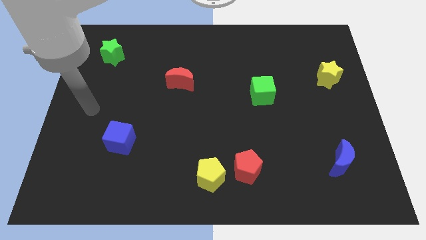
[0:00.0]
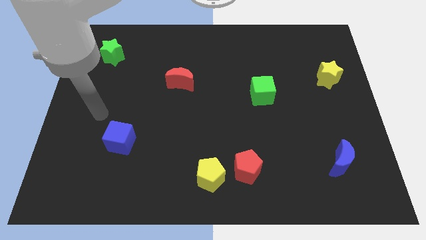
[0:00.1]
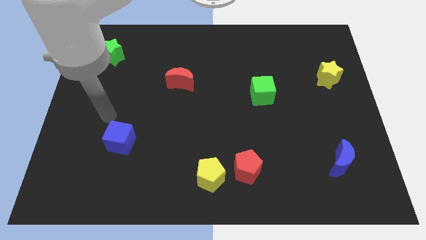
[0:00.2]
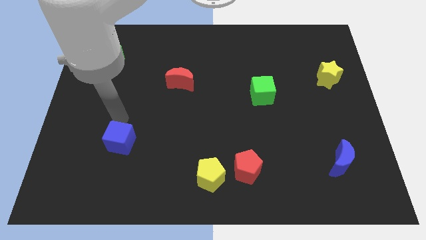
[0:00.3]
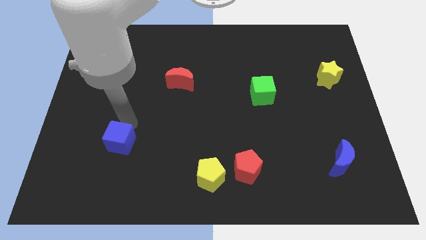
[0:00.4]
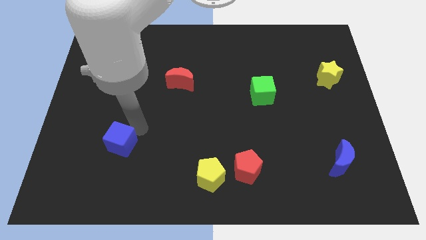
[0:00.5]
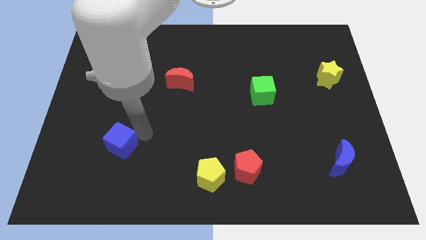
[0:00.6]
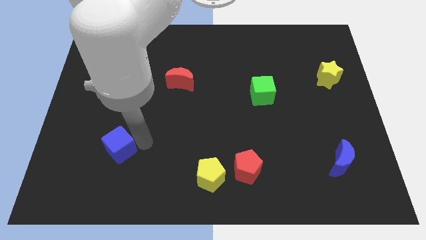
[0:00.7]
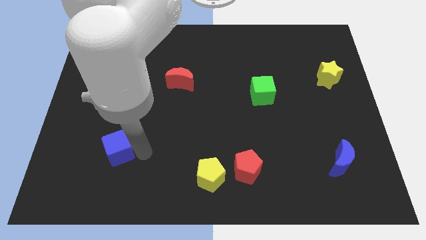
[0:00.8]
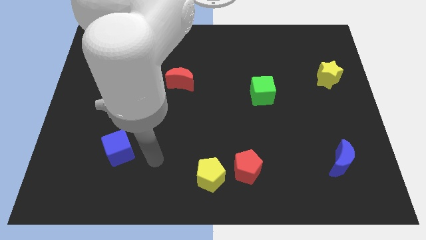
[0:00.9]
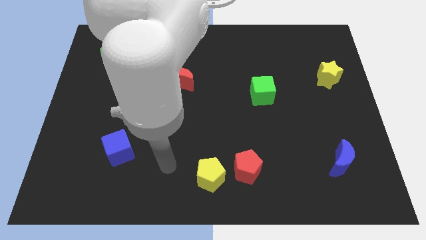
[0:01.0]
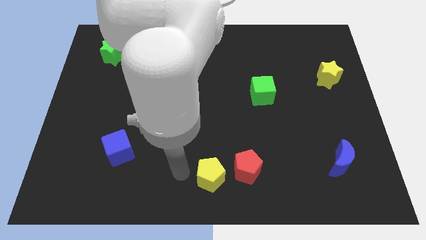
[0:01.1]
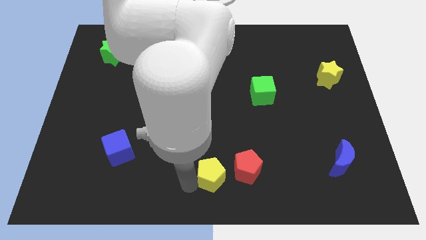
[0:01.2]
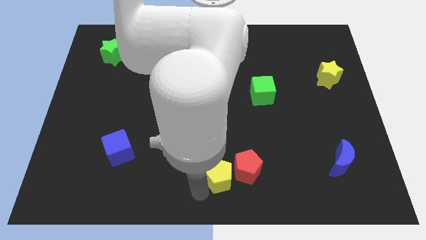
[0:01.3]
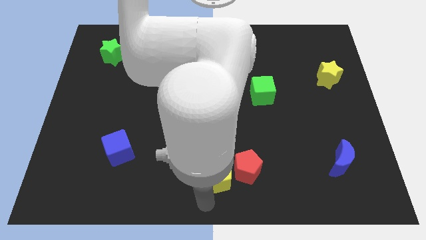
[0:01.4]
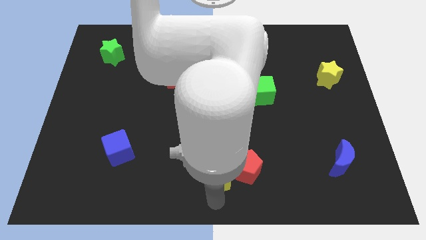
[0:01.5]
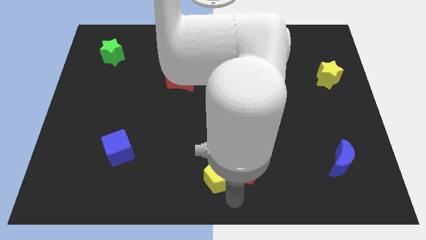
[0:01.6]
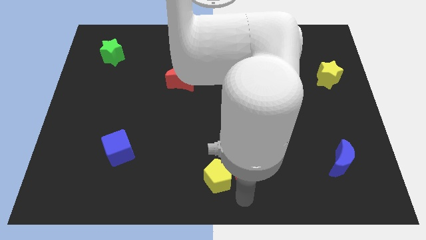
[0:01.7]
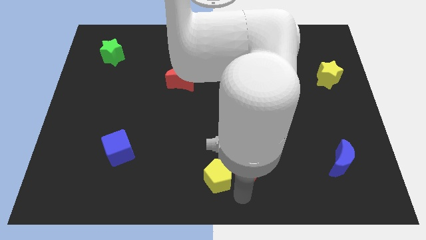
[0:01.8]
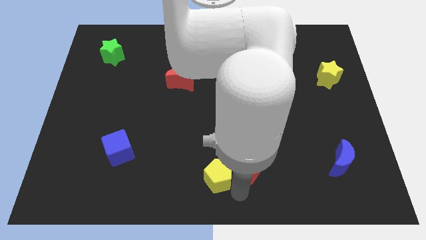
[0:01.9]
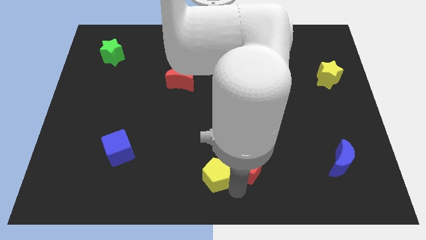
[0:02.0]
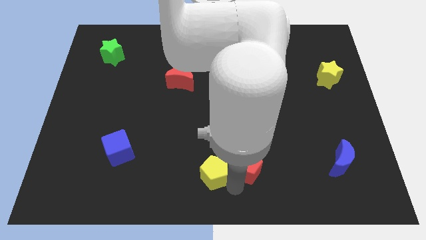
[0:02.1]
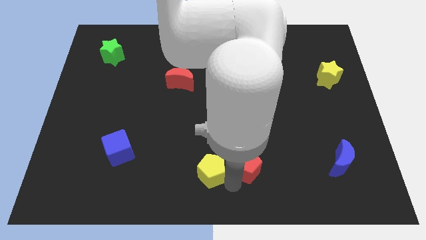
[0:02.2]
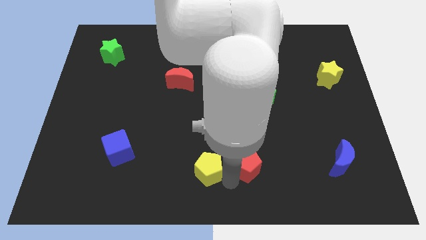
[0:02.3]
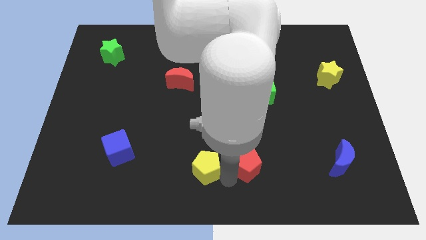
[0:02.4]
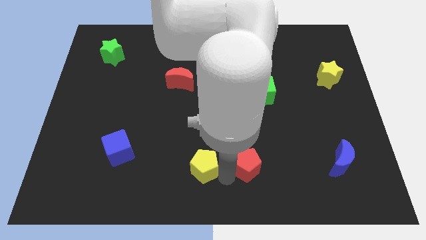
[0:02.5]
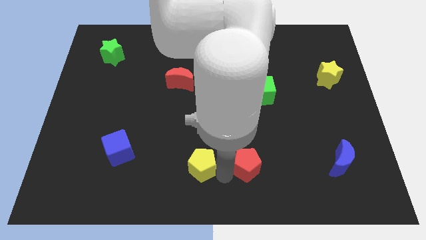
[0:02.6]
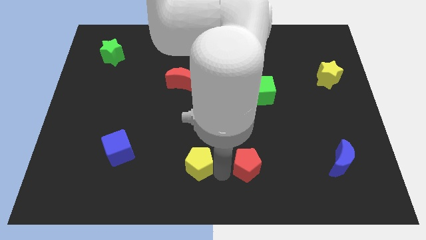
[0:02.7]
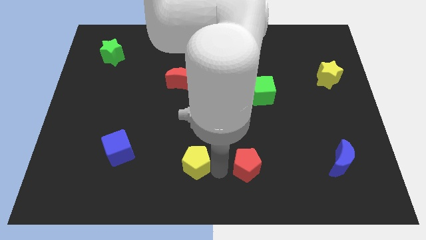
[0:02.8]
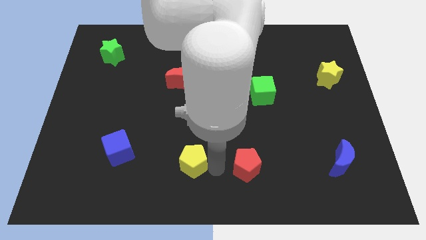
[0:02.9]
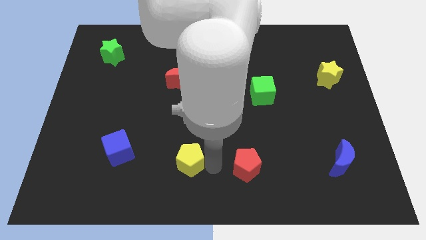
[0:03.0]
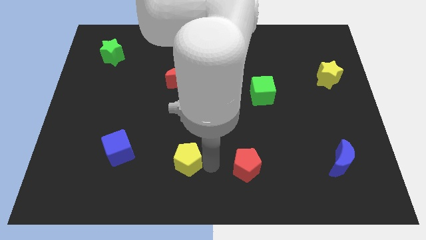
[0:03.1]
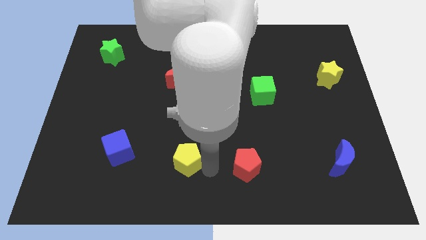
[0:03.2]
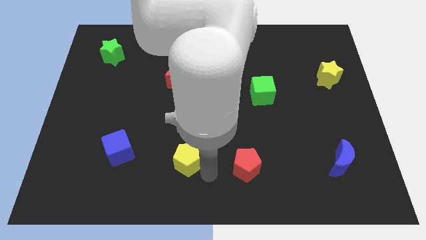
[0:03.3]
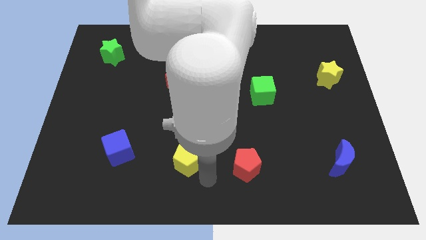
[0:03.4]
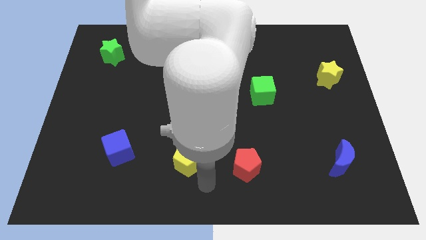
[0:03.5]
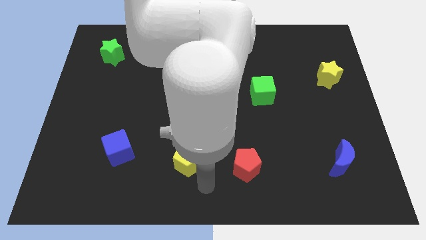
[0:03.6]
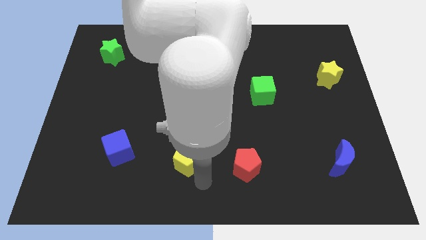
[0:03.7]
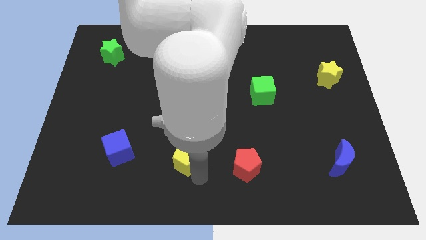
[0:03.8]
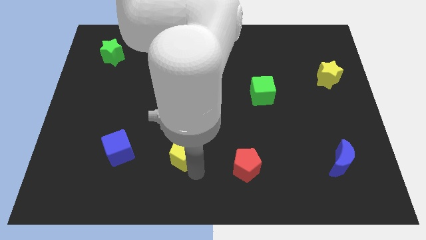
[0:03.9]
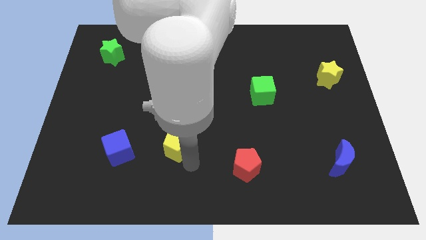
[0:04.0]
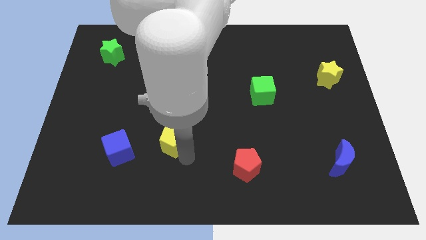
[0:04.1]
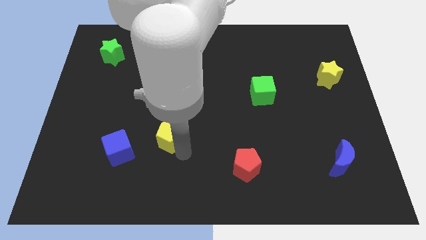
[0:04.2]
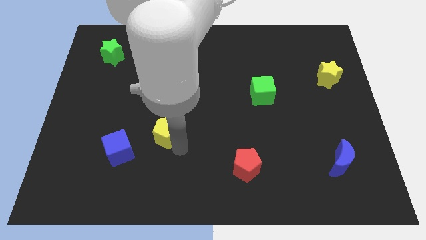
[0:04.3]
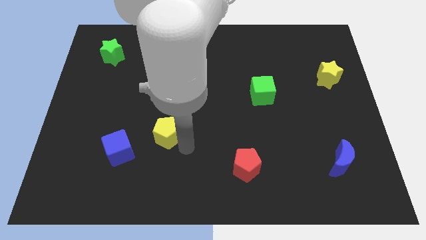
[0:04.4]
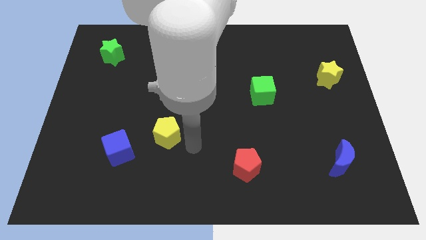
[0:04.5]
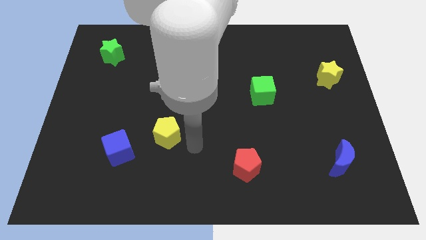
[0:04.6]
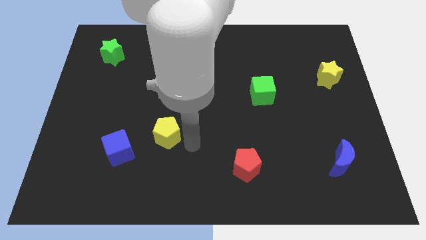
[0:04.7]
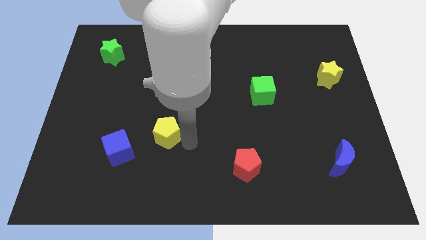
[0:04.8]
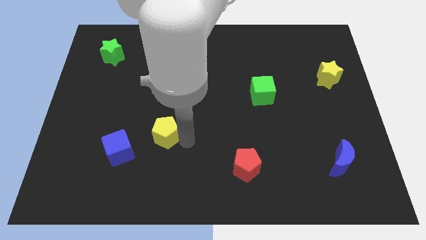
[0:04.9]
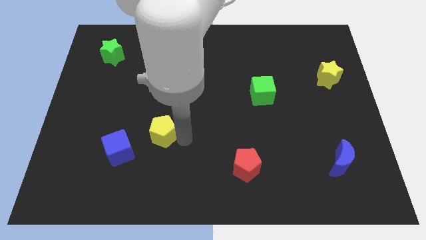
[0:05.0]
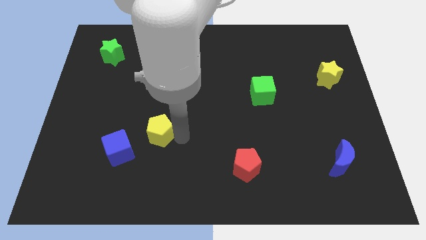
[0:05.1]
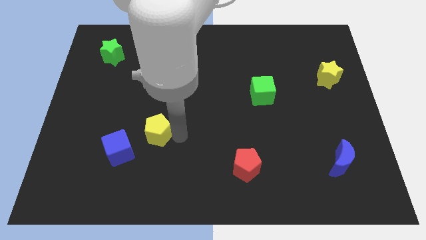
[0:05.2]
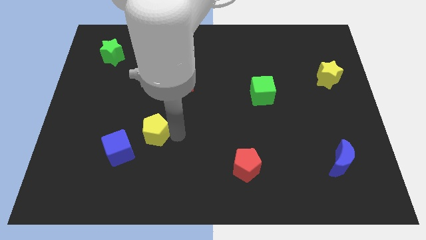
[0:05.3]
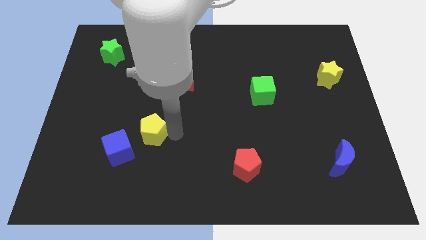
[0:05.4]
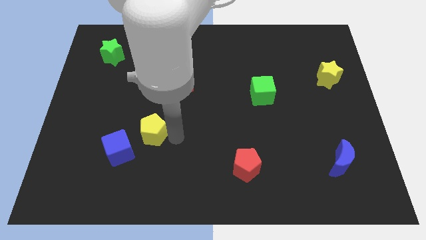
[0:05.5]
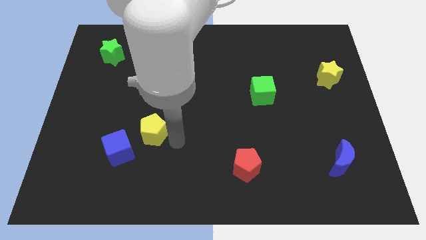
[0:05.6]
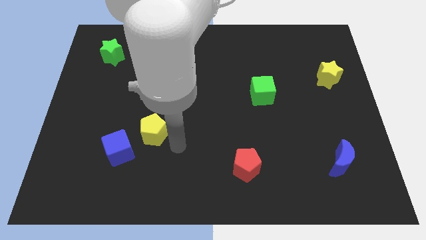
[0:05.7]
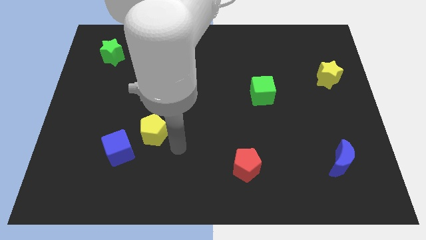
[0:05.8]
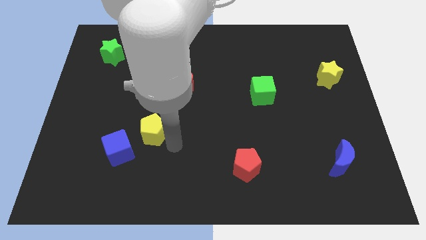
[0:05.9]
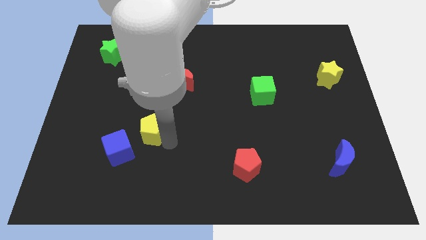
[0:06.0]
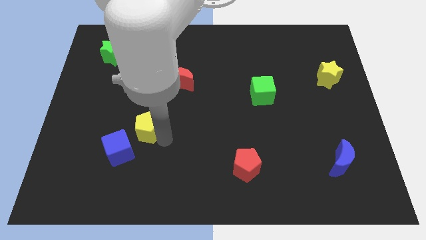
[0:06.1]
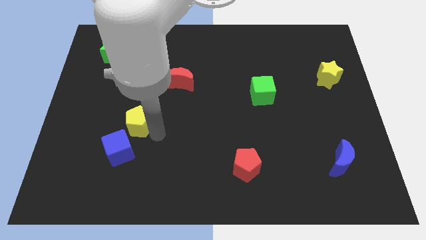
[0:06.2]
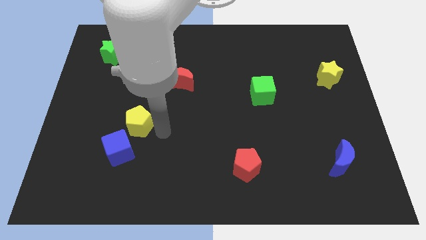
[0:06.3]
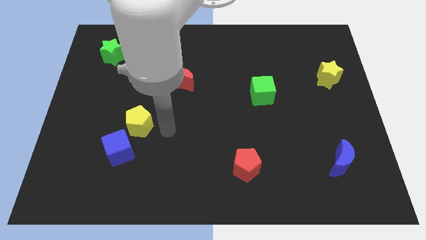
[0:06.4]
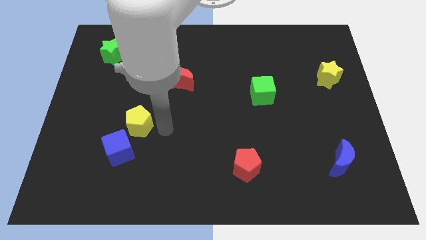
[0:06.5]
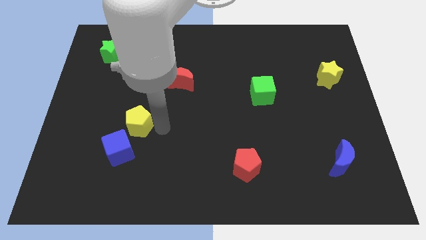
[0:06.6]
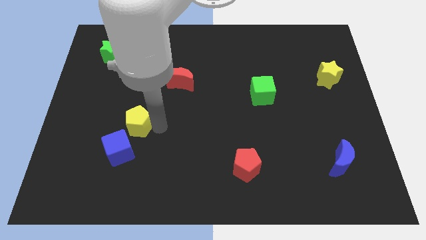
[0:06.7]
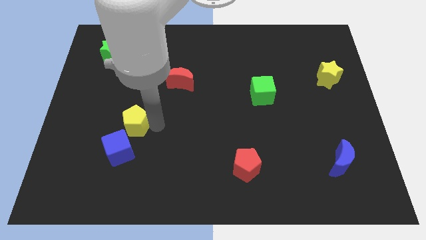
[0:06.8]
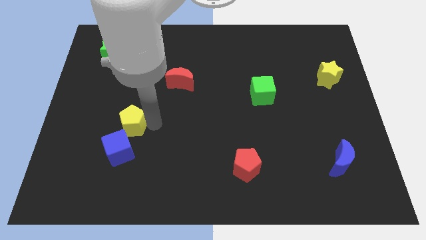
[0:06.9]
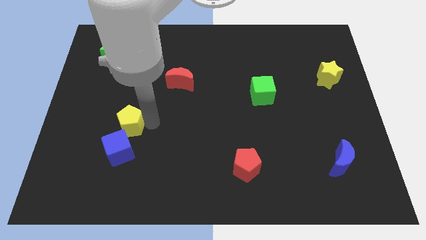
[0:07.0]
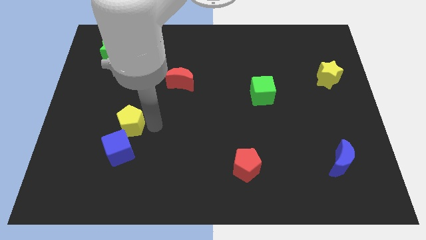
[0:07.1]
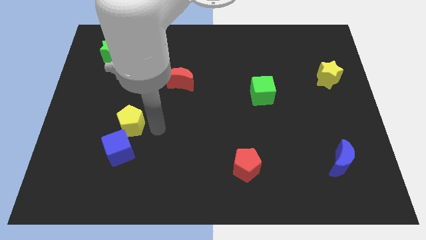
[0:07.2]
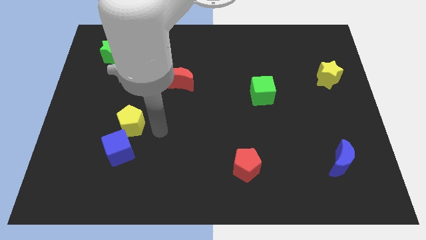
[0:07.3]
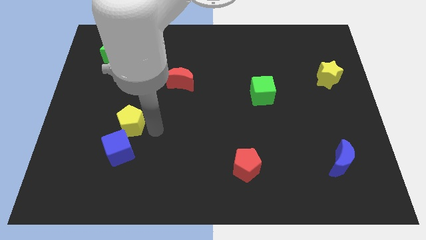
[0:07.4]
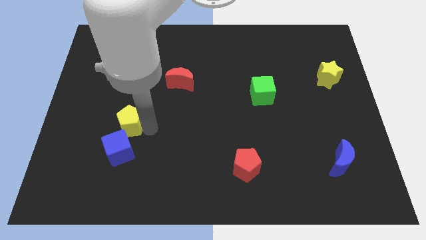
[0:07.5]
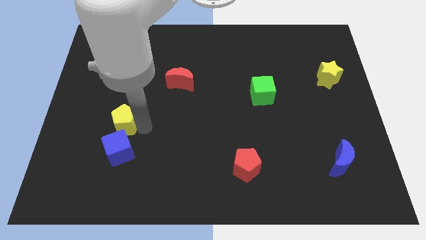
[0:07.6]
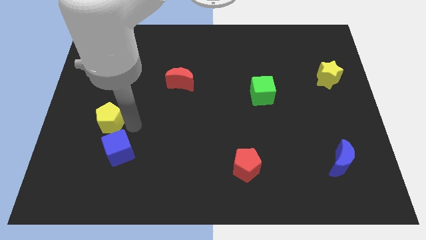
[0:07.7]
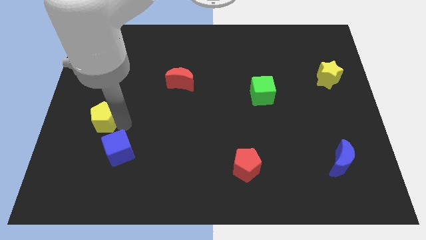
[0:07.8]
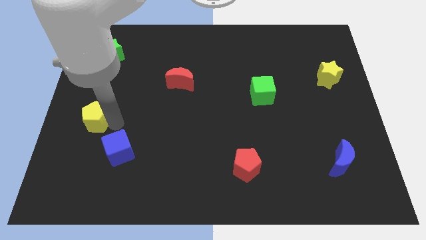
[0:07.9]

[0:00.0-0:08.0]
slide the yellow pentagon to the left side of the board
